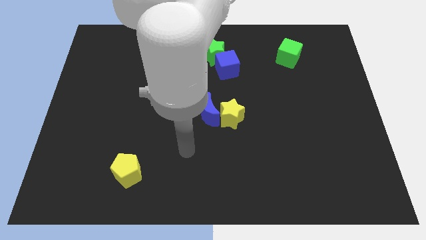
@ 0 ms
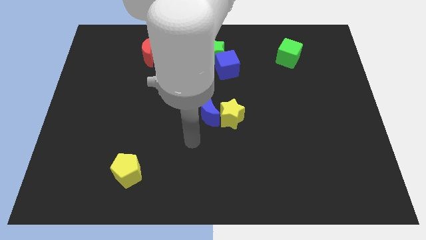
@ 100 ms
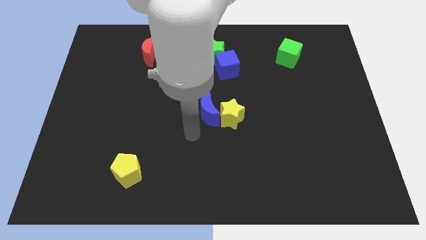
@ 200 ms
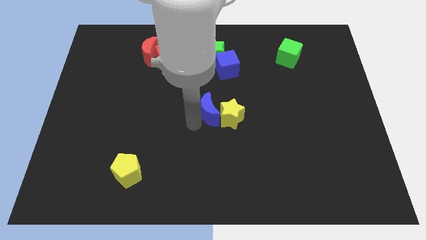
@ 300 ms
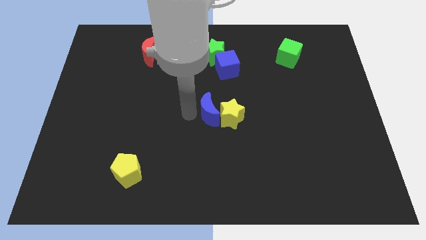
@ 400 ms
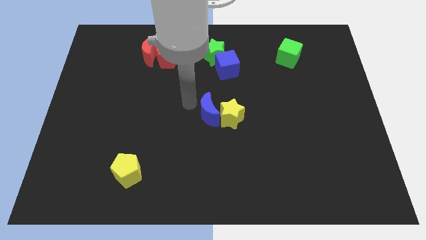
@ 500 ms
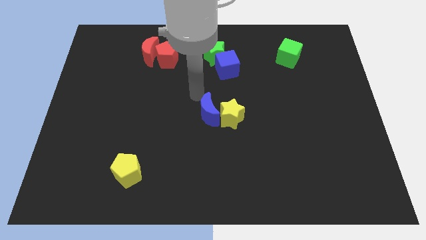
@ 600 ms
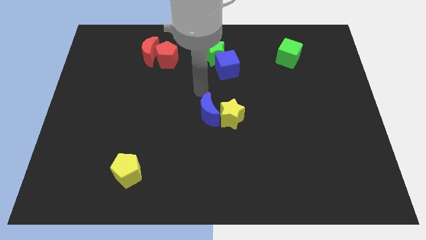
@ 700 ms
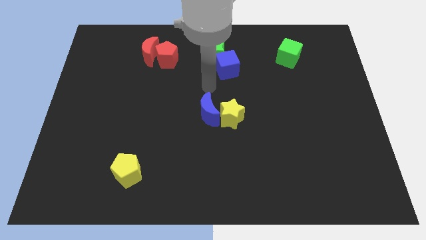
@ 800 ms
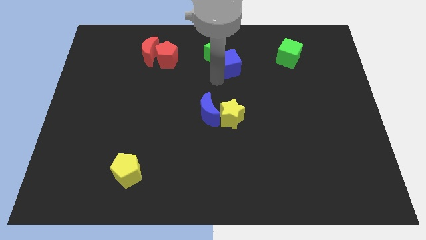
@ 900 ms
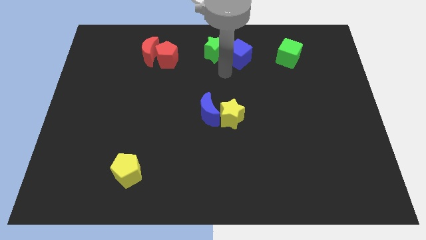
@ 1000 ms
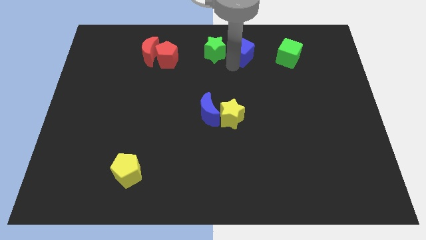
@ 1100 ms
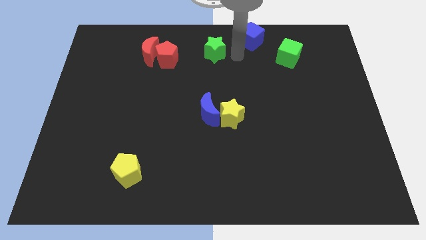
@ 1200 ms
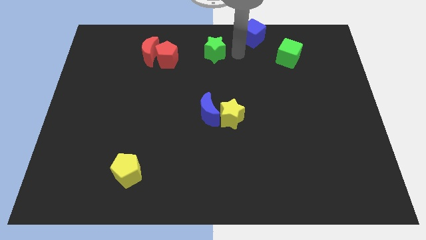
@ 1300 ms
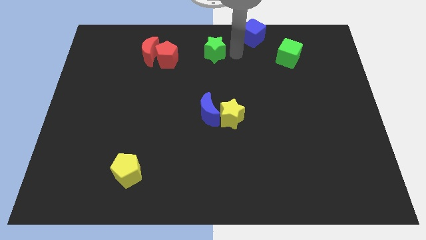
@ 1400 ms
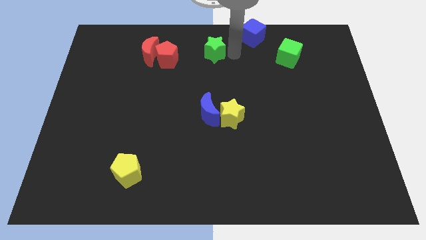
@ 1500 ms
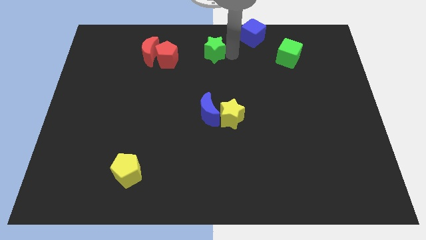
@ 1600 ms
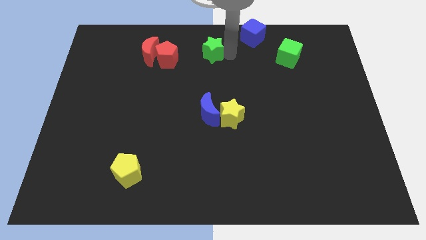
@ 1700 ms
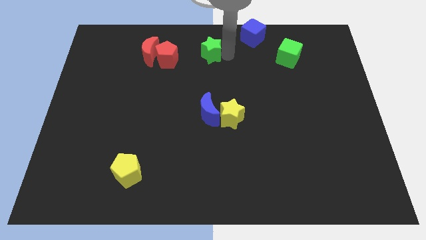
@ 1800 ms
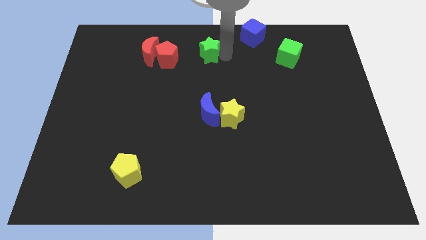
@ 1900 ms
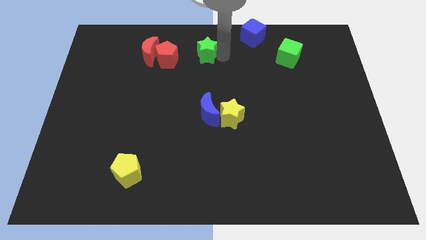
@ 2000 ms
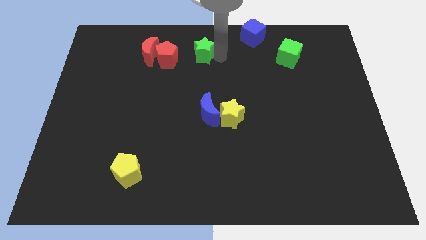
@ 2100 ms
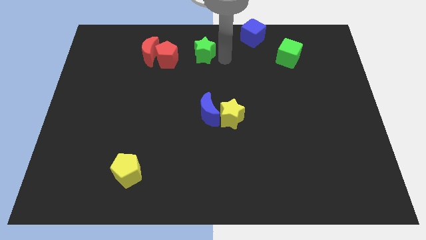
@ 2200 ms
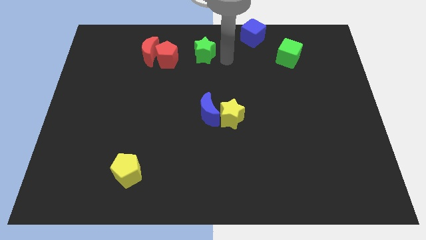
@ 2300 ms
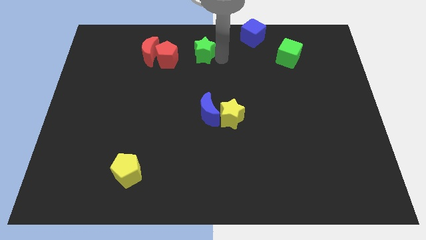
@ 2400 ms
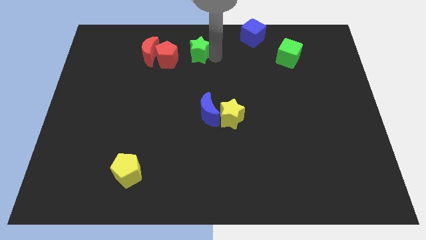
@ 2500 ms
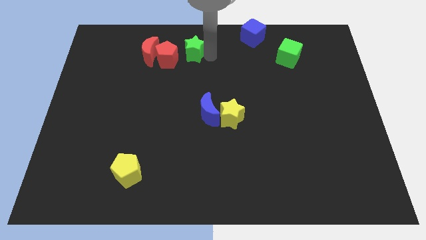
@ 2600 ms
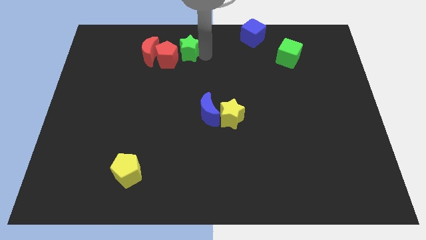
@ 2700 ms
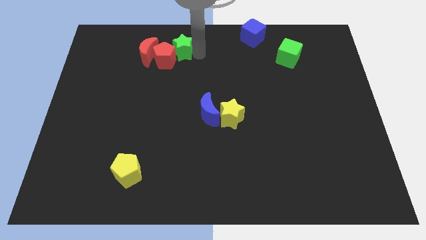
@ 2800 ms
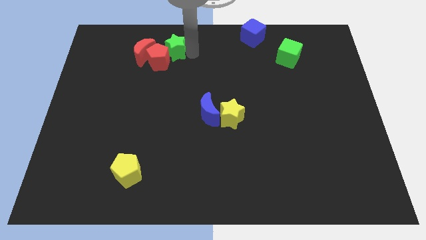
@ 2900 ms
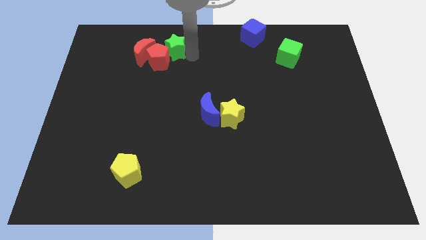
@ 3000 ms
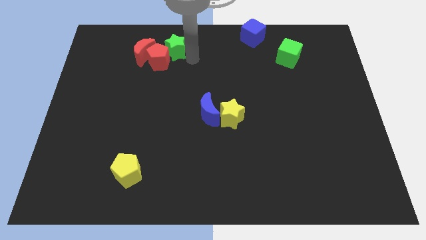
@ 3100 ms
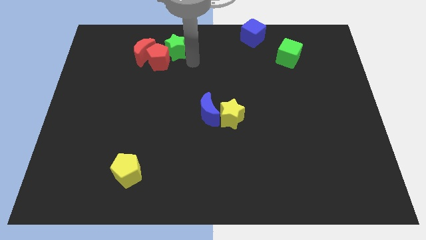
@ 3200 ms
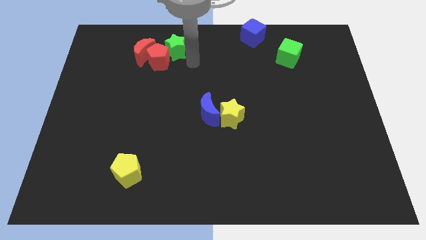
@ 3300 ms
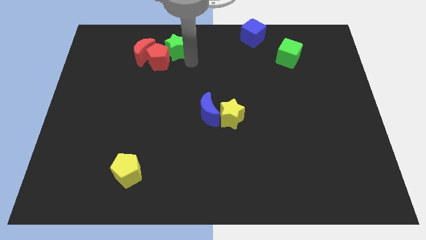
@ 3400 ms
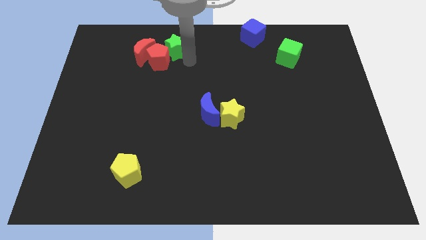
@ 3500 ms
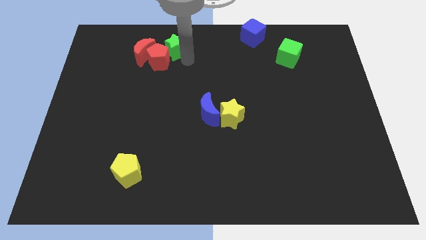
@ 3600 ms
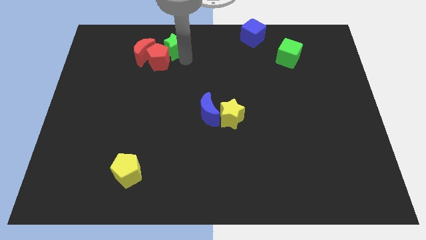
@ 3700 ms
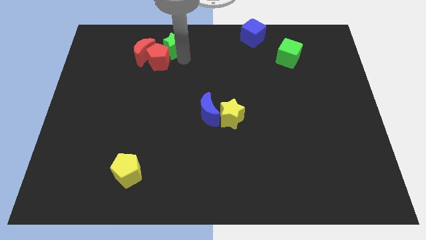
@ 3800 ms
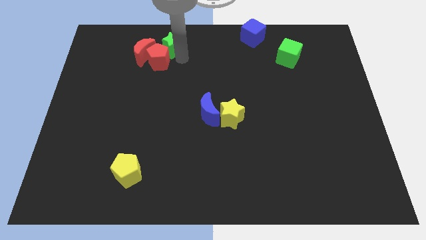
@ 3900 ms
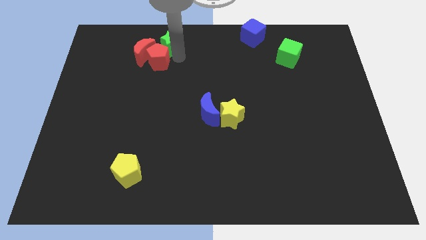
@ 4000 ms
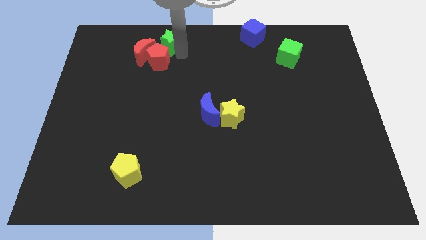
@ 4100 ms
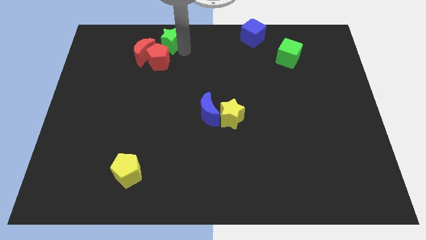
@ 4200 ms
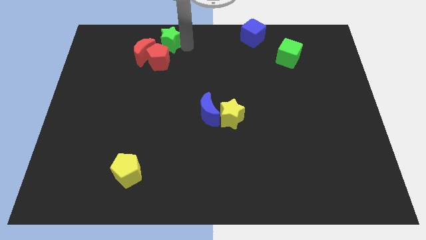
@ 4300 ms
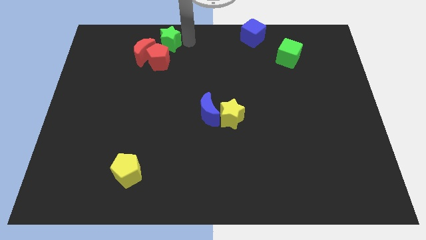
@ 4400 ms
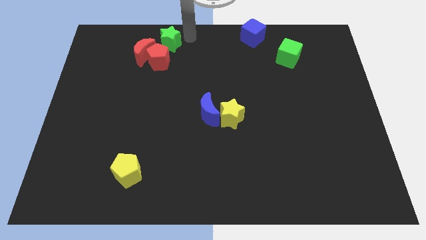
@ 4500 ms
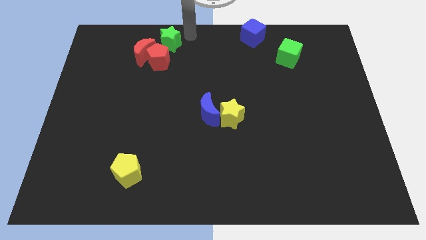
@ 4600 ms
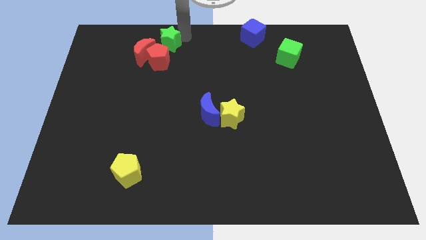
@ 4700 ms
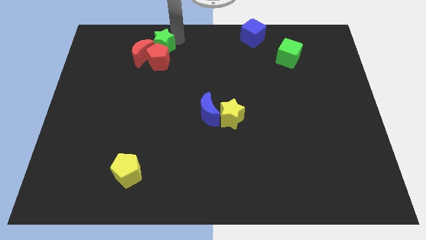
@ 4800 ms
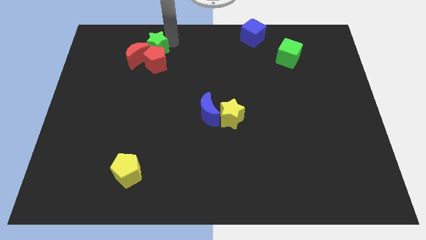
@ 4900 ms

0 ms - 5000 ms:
put the green star next to the red moon

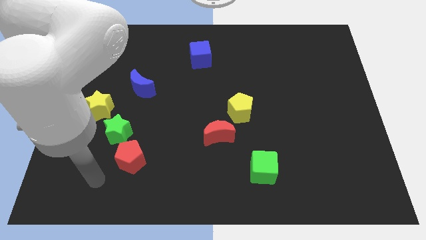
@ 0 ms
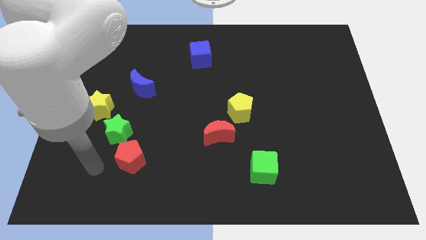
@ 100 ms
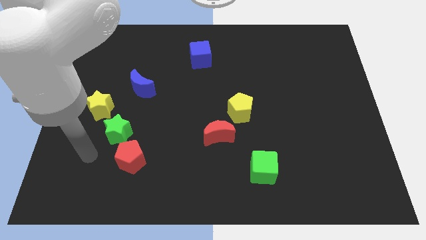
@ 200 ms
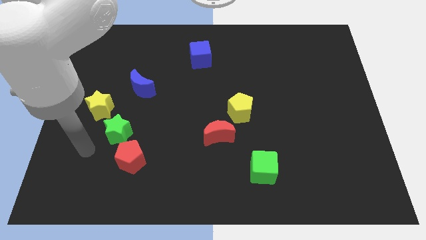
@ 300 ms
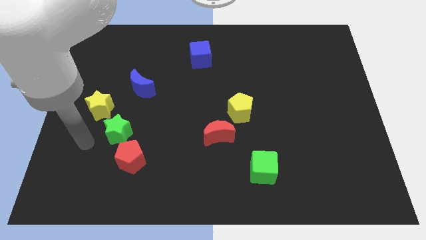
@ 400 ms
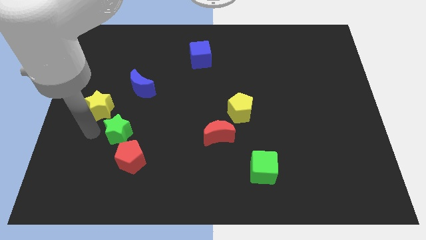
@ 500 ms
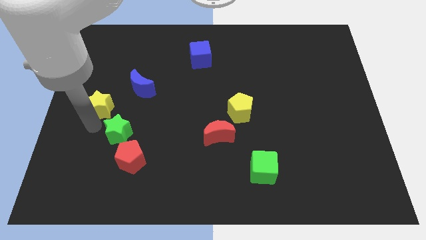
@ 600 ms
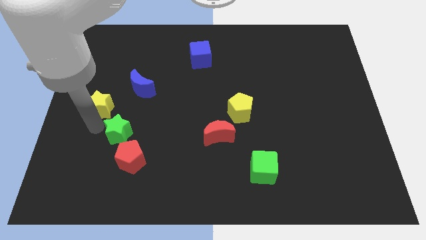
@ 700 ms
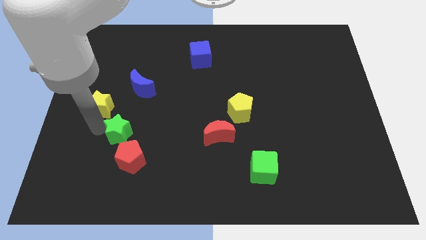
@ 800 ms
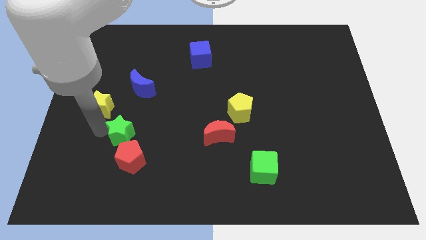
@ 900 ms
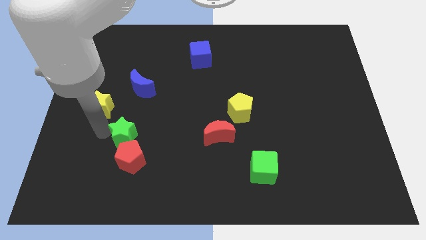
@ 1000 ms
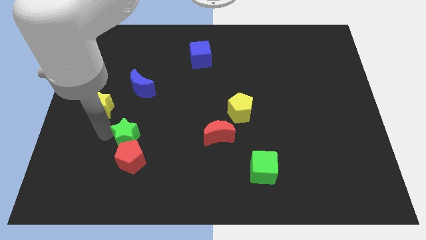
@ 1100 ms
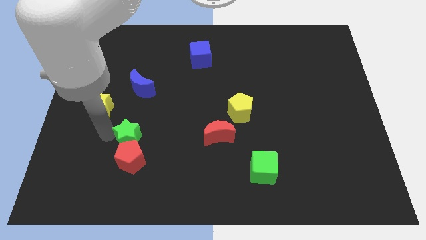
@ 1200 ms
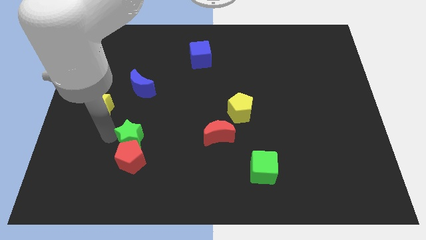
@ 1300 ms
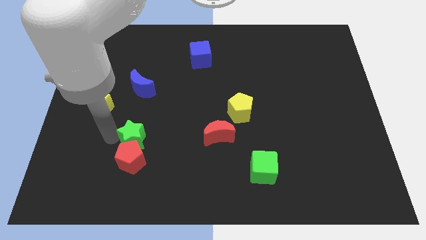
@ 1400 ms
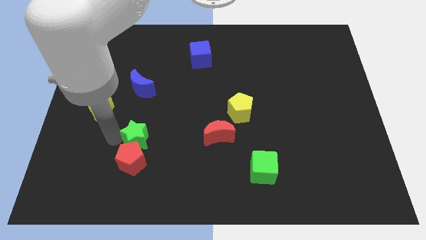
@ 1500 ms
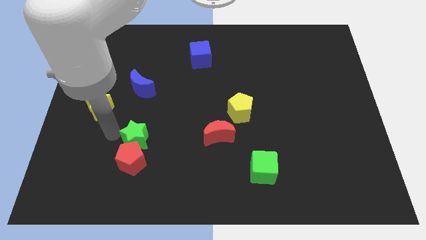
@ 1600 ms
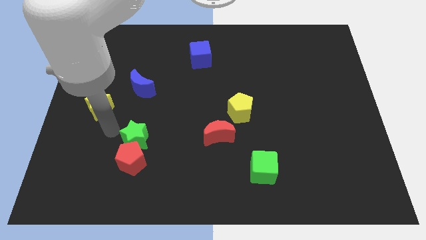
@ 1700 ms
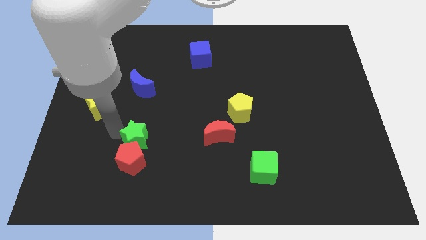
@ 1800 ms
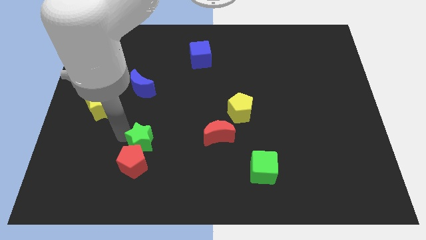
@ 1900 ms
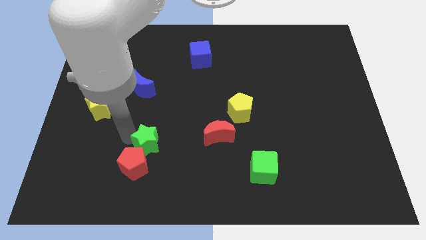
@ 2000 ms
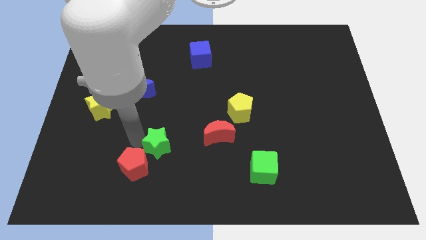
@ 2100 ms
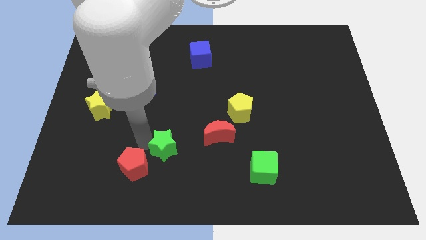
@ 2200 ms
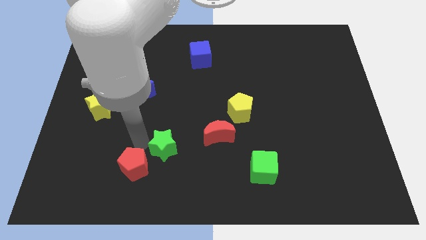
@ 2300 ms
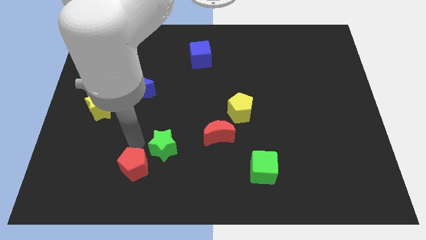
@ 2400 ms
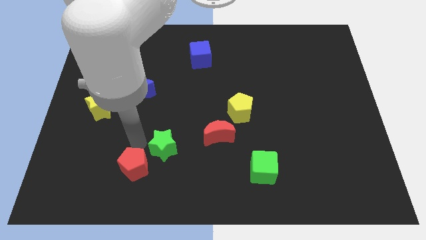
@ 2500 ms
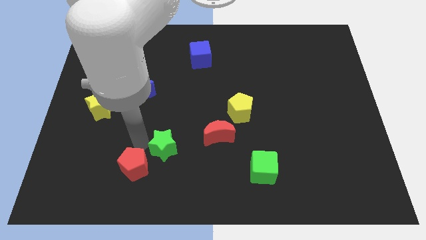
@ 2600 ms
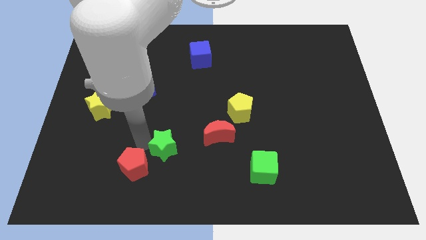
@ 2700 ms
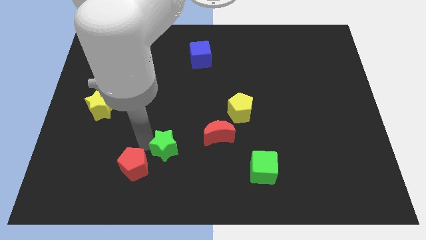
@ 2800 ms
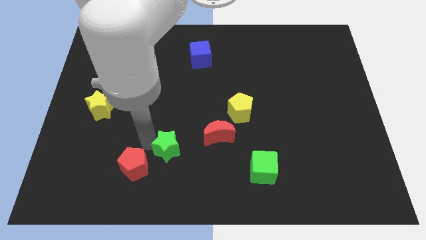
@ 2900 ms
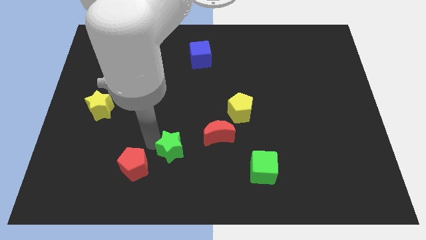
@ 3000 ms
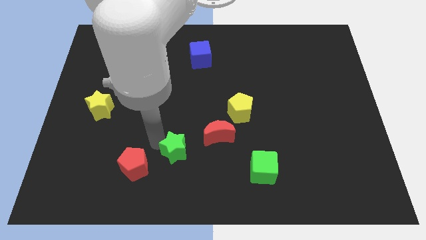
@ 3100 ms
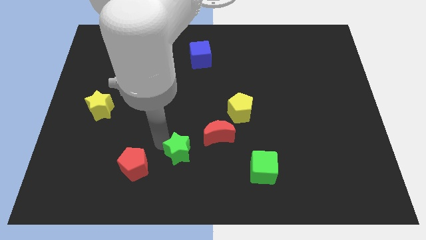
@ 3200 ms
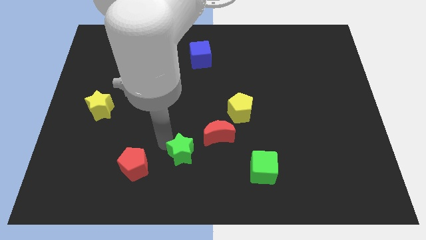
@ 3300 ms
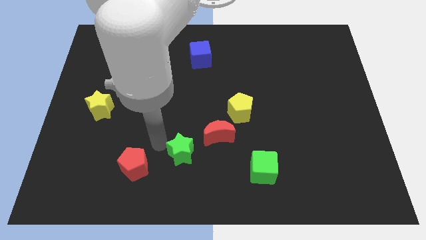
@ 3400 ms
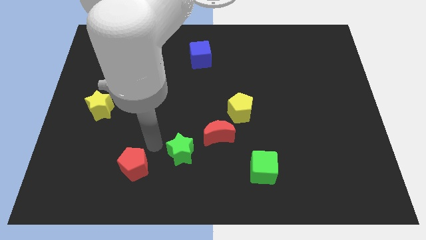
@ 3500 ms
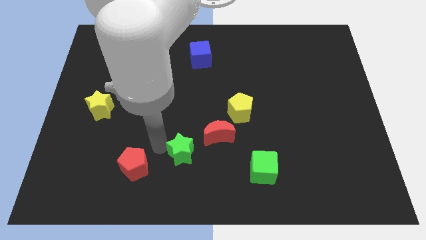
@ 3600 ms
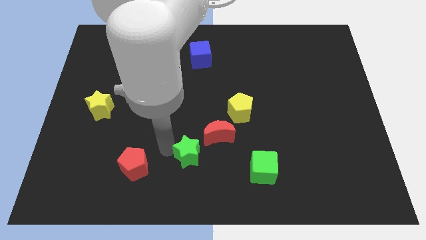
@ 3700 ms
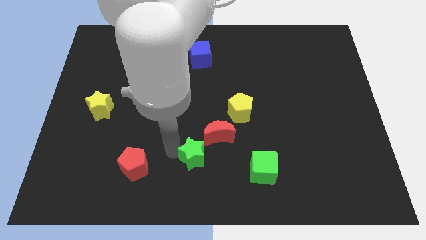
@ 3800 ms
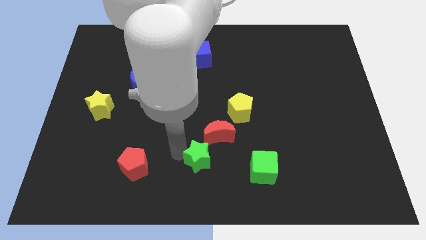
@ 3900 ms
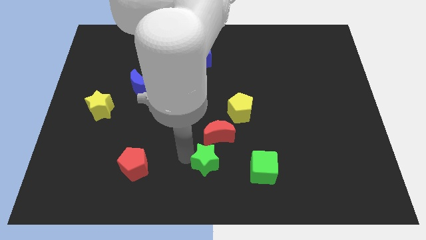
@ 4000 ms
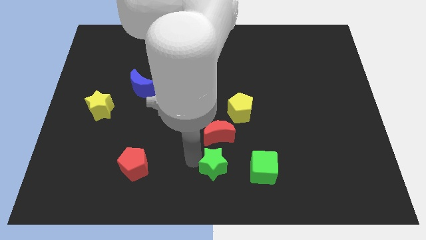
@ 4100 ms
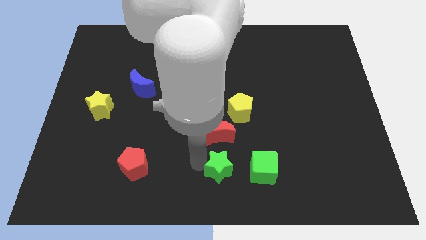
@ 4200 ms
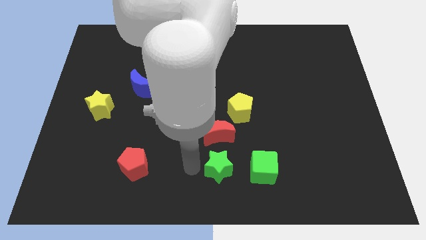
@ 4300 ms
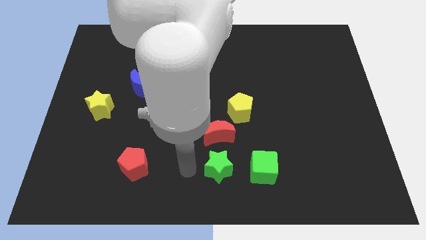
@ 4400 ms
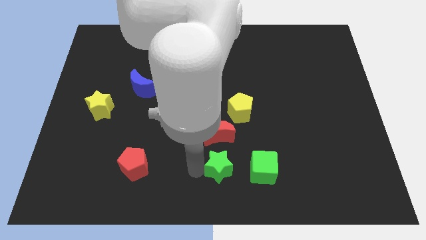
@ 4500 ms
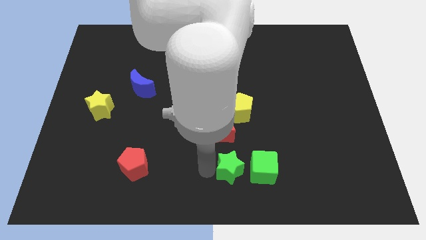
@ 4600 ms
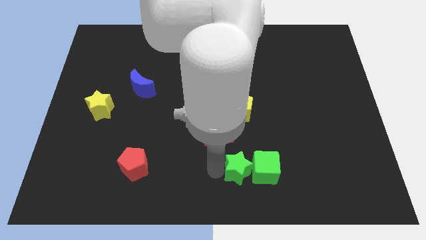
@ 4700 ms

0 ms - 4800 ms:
move the green star to the green cube
